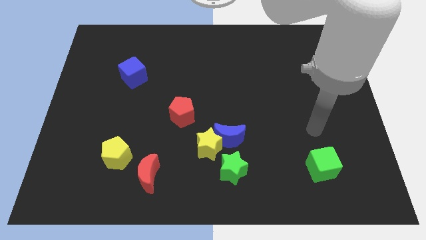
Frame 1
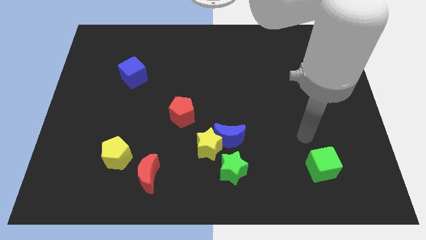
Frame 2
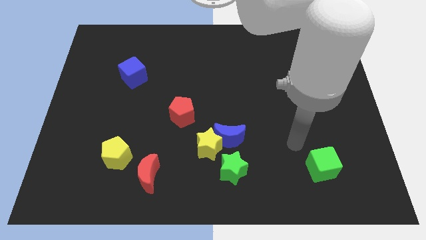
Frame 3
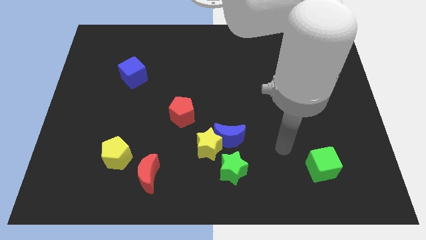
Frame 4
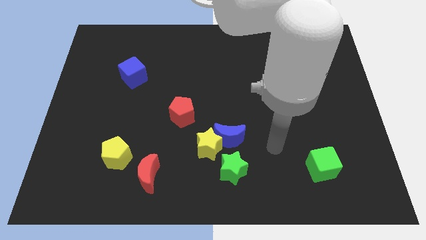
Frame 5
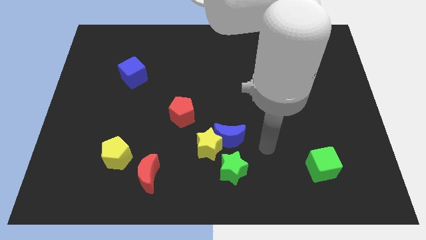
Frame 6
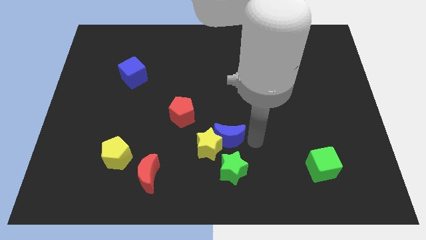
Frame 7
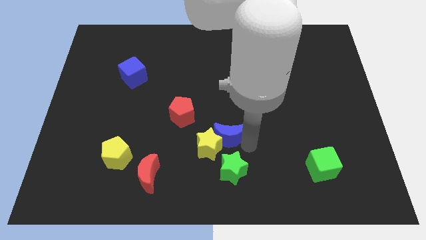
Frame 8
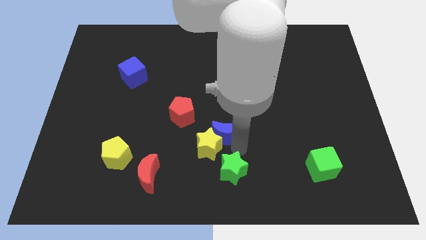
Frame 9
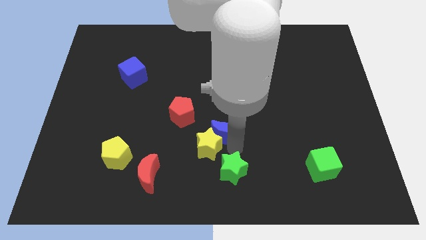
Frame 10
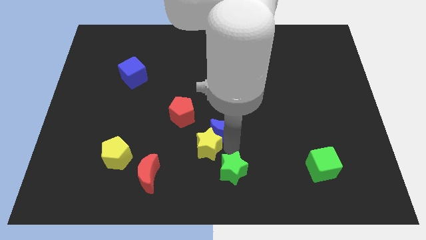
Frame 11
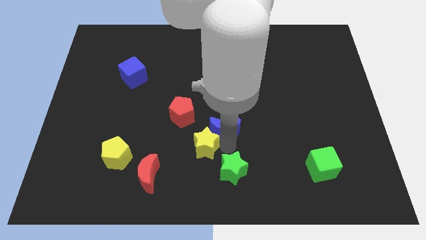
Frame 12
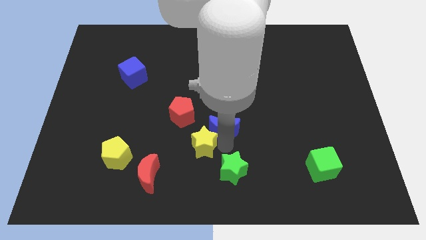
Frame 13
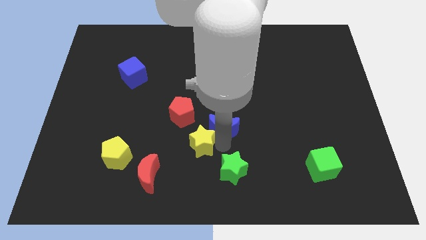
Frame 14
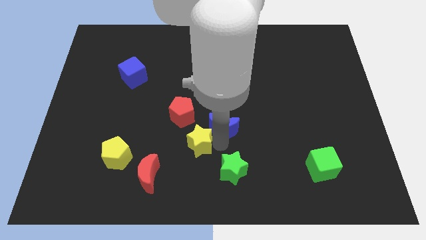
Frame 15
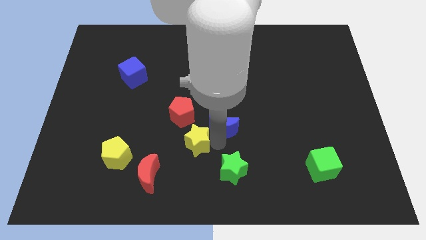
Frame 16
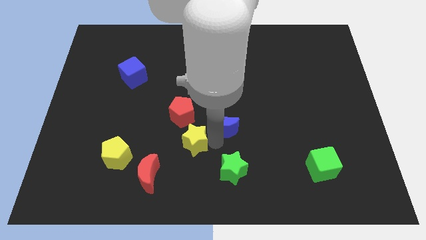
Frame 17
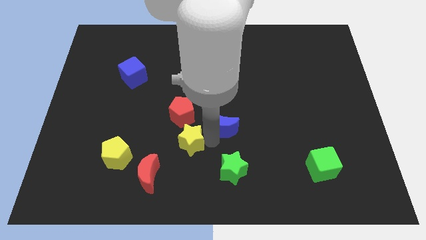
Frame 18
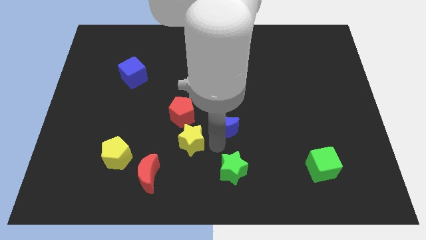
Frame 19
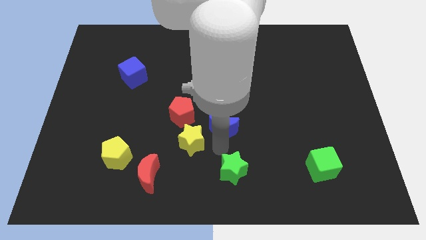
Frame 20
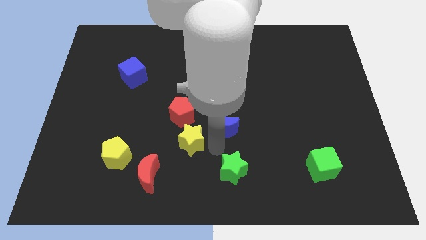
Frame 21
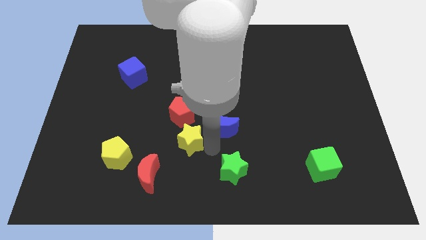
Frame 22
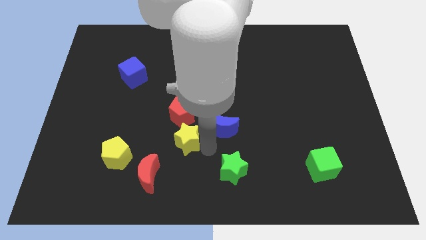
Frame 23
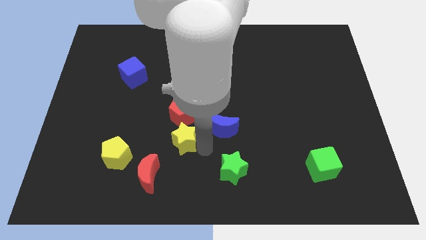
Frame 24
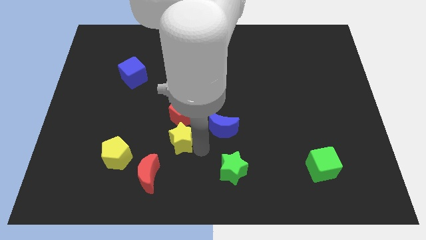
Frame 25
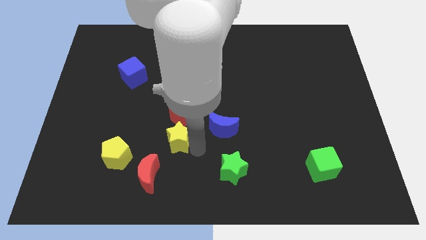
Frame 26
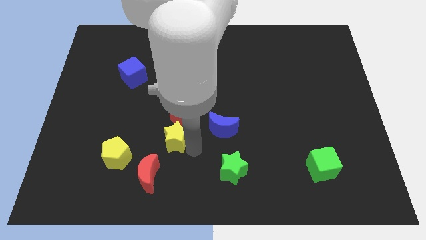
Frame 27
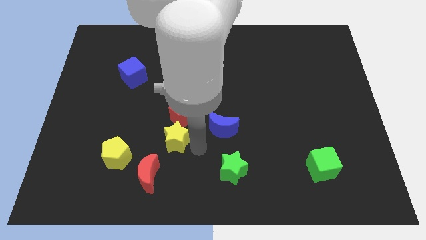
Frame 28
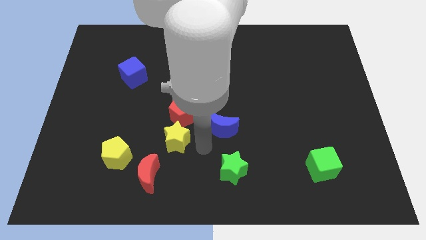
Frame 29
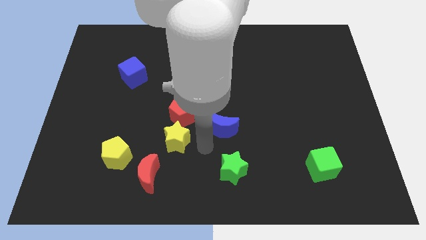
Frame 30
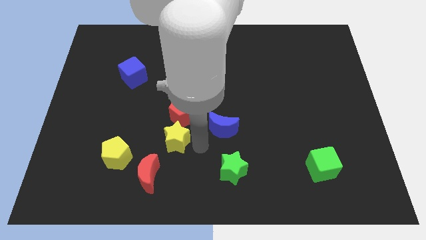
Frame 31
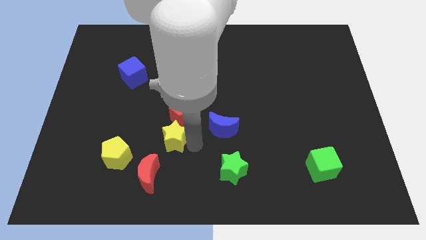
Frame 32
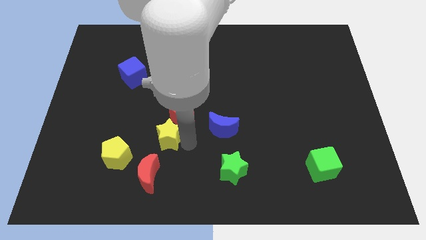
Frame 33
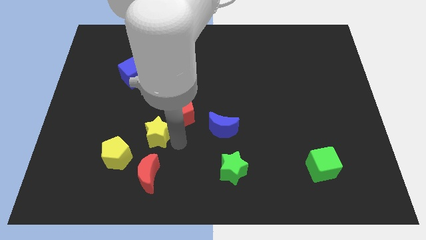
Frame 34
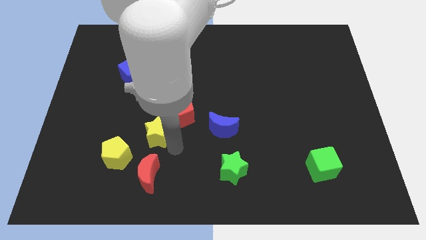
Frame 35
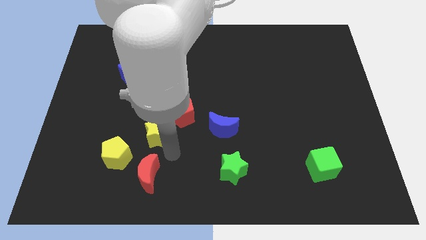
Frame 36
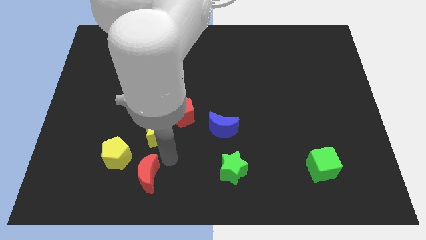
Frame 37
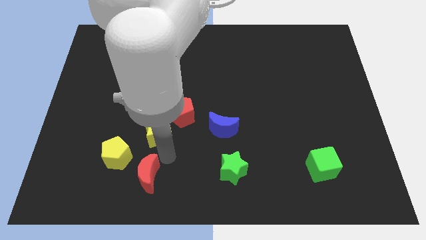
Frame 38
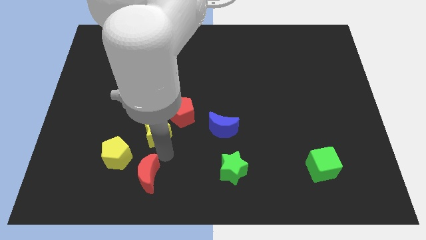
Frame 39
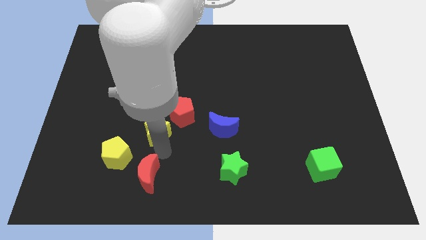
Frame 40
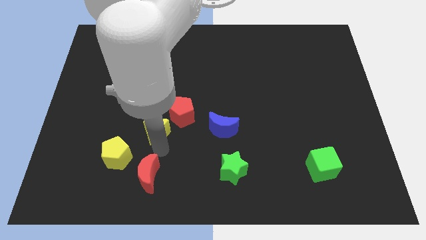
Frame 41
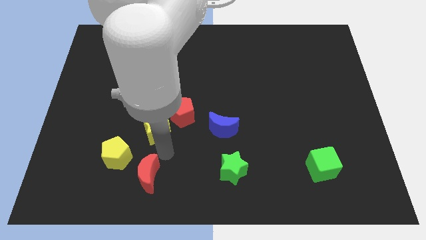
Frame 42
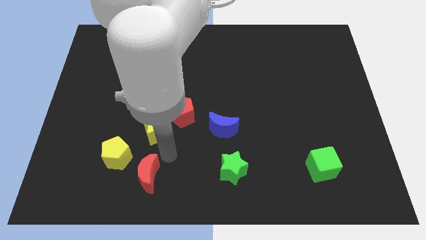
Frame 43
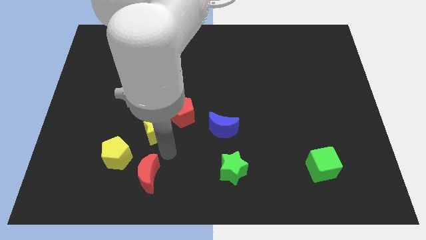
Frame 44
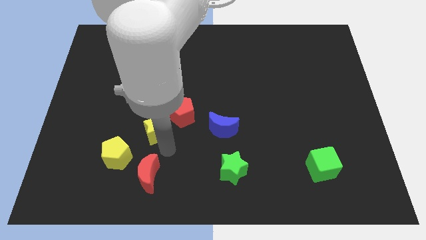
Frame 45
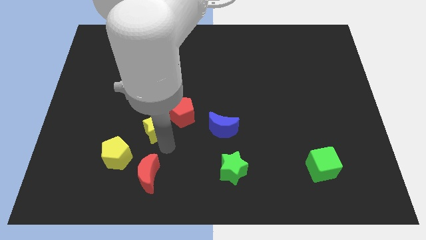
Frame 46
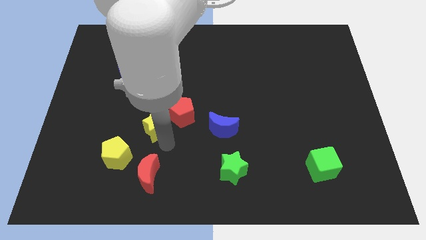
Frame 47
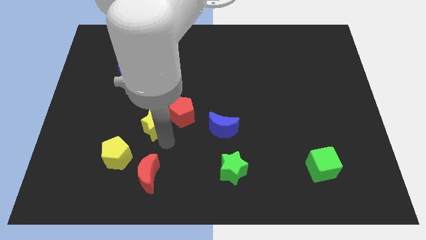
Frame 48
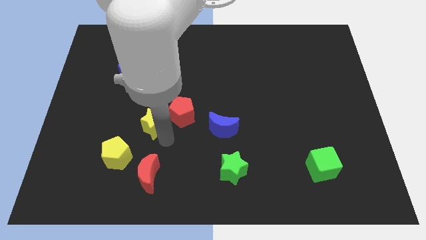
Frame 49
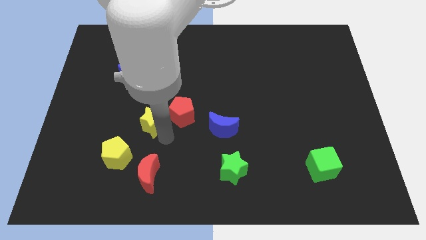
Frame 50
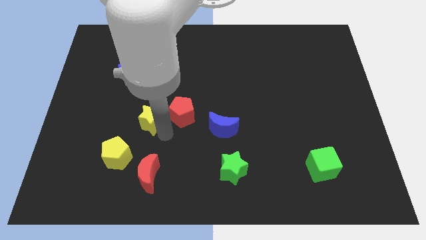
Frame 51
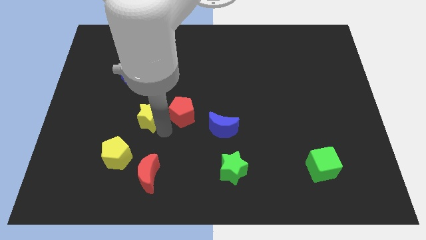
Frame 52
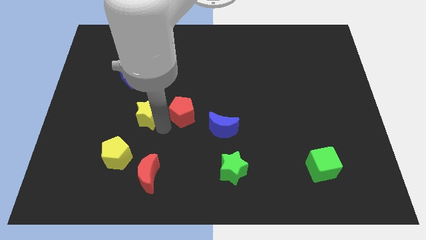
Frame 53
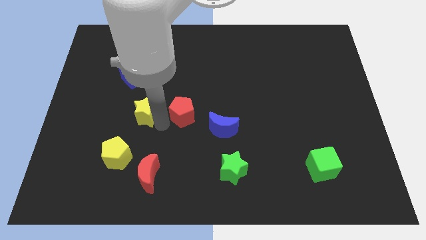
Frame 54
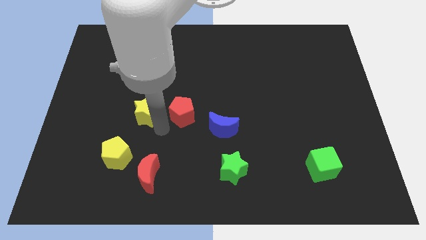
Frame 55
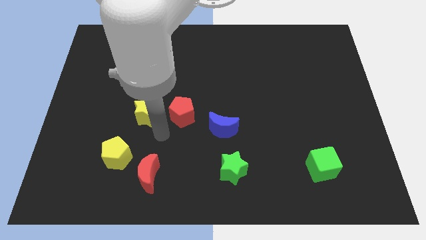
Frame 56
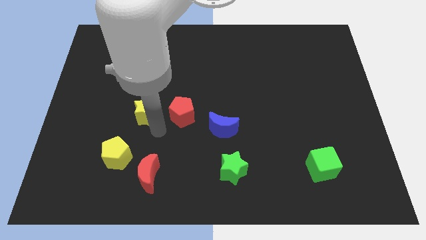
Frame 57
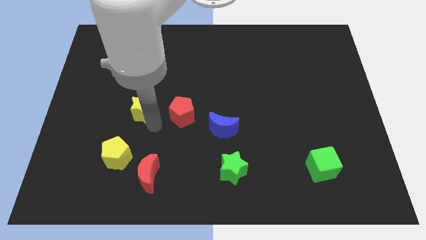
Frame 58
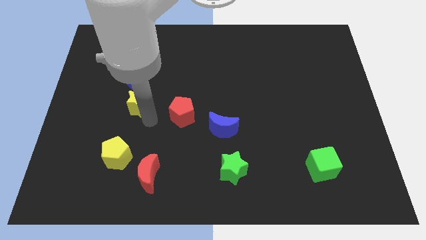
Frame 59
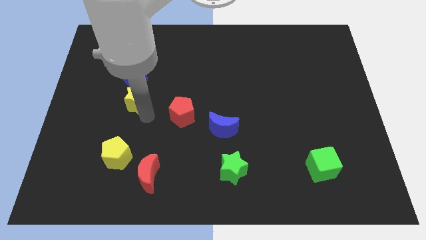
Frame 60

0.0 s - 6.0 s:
slide the yellow star diagonally upwards and left

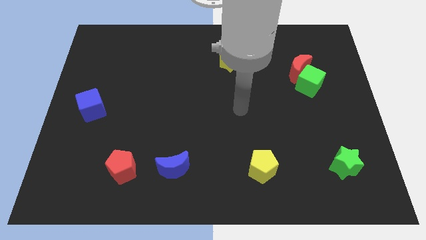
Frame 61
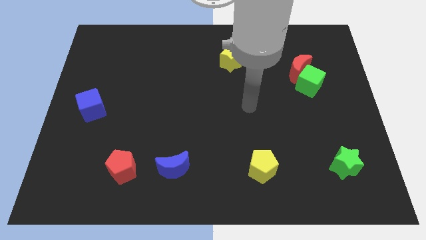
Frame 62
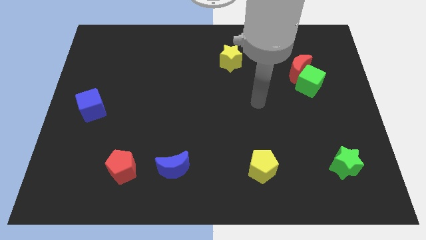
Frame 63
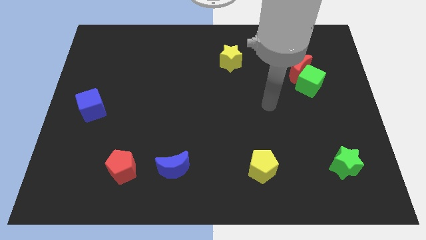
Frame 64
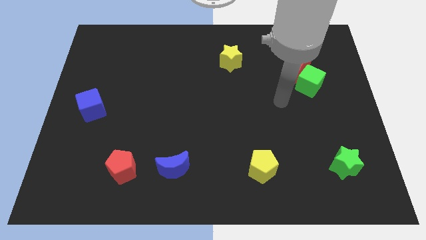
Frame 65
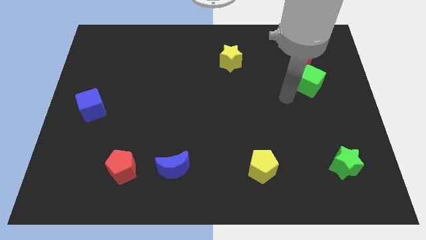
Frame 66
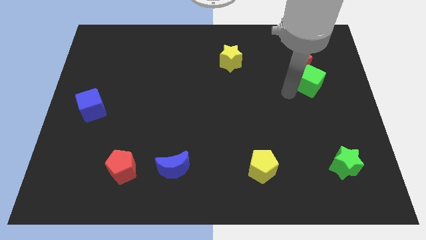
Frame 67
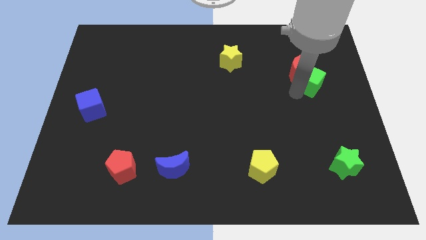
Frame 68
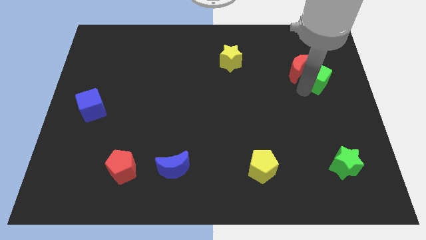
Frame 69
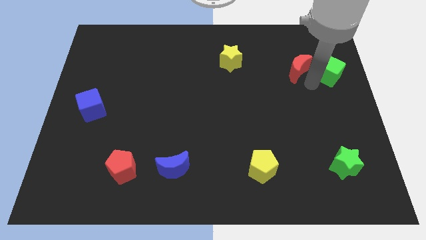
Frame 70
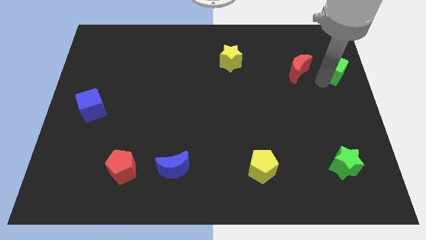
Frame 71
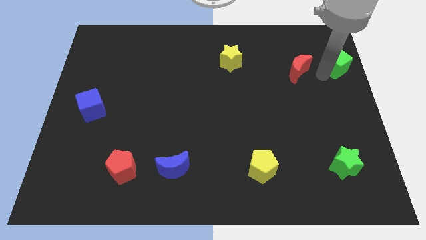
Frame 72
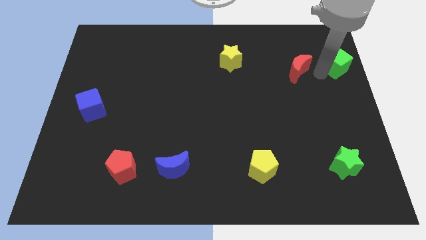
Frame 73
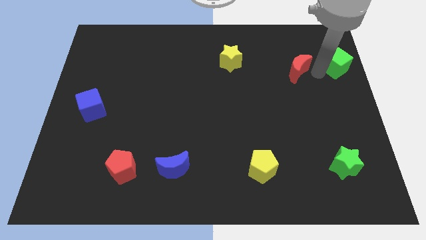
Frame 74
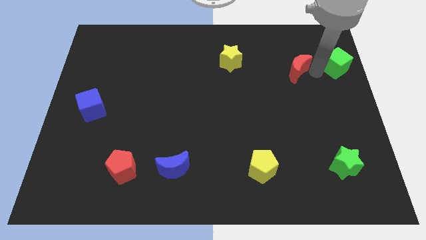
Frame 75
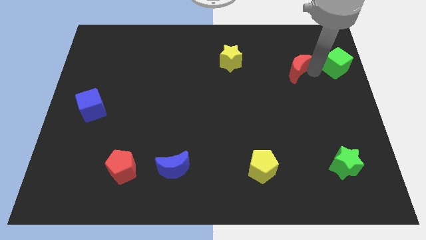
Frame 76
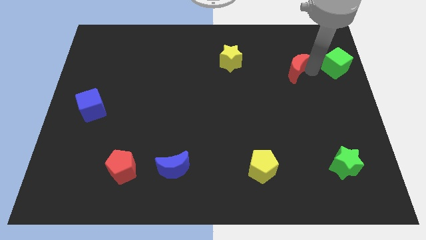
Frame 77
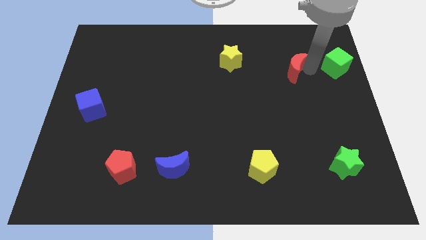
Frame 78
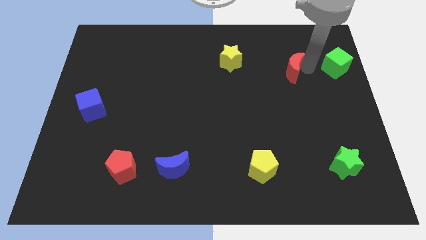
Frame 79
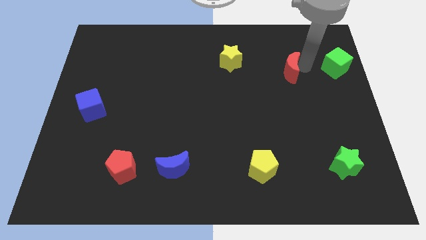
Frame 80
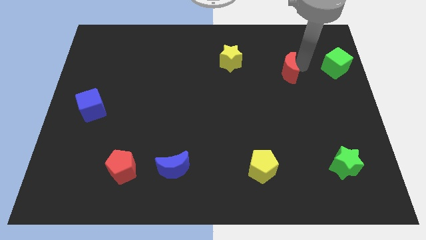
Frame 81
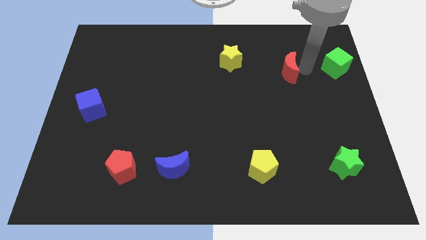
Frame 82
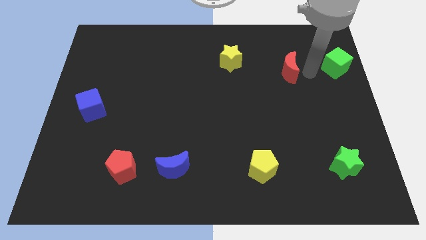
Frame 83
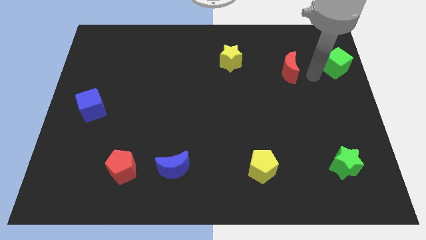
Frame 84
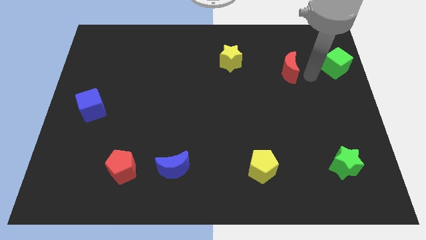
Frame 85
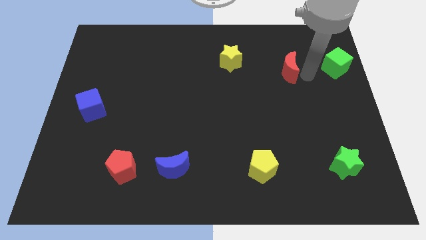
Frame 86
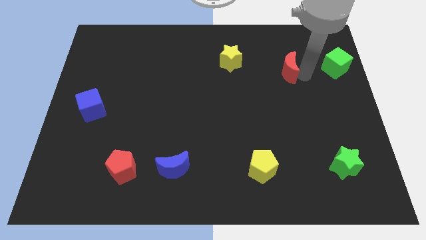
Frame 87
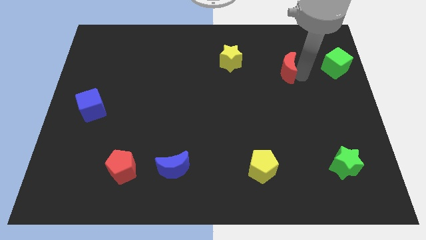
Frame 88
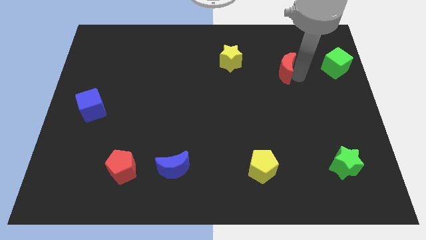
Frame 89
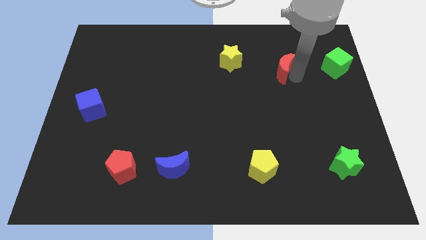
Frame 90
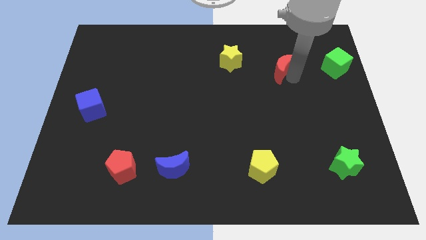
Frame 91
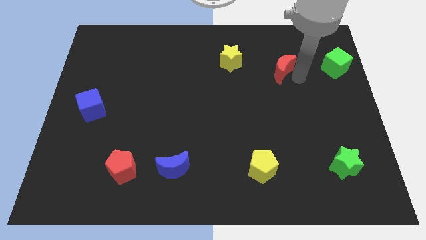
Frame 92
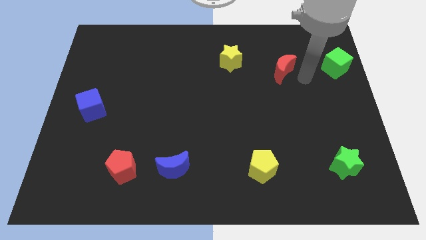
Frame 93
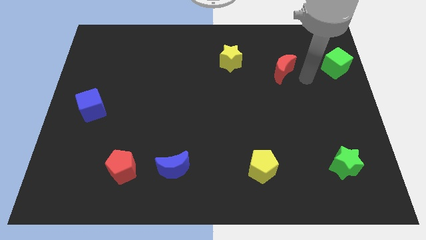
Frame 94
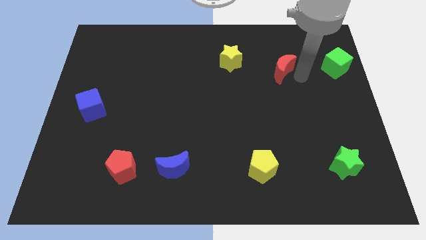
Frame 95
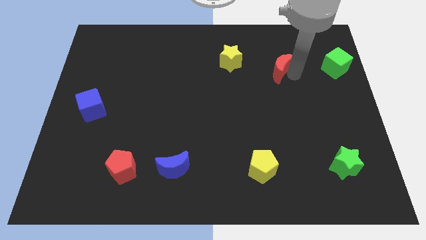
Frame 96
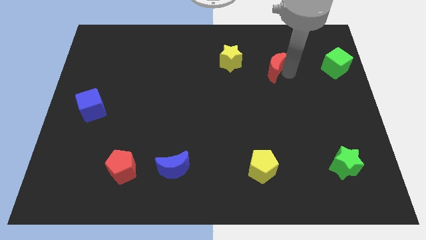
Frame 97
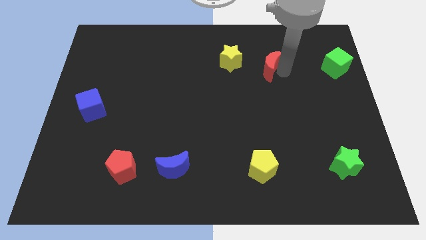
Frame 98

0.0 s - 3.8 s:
move the red moon left a little
